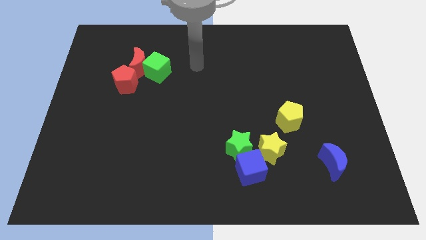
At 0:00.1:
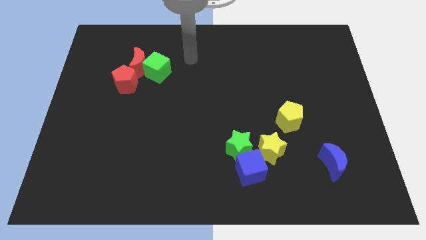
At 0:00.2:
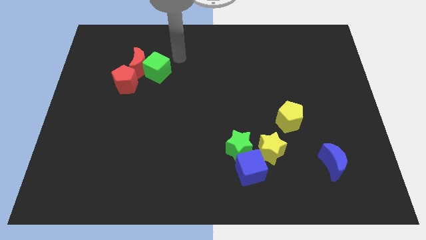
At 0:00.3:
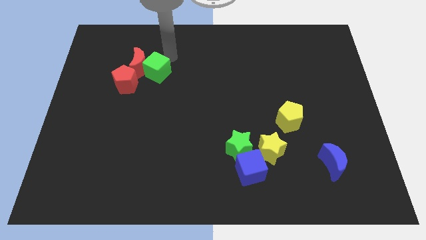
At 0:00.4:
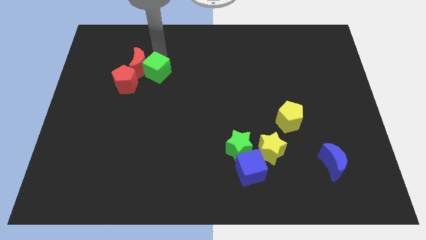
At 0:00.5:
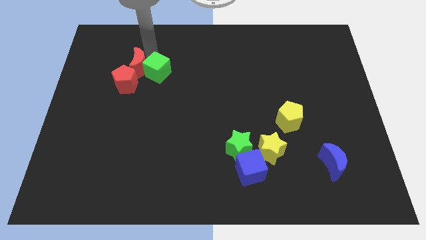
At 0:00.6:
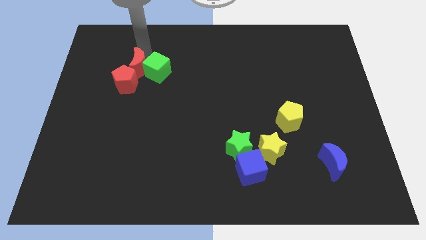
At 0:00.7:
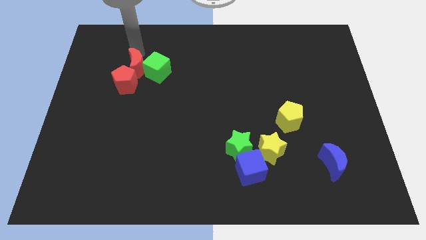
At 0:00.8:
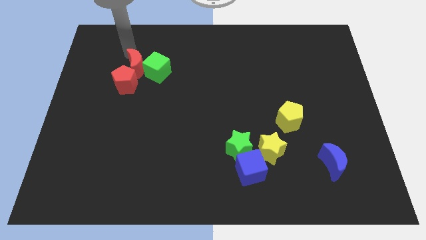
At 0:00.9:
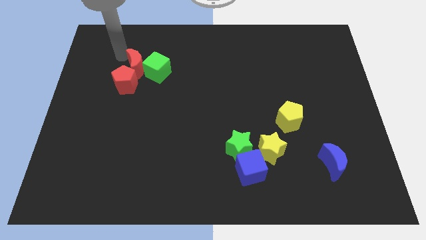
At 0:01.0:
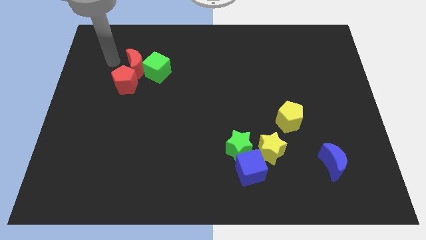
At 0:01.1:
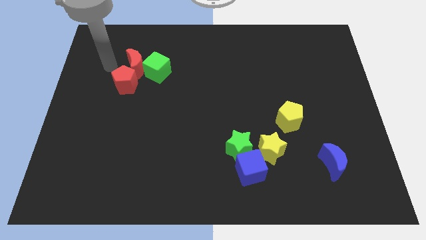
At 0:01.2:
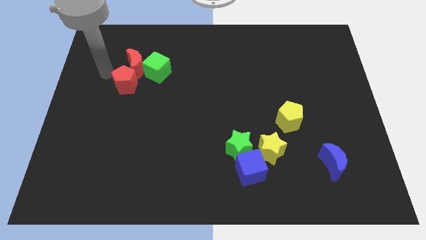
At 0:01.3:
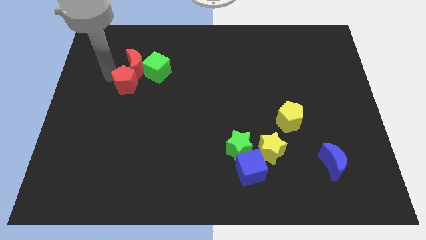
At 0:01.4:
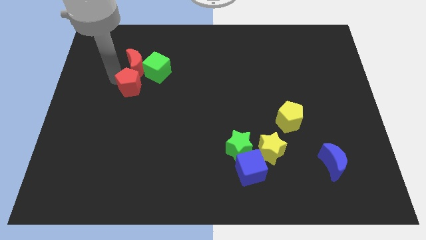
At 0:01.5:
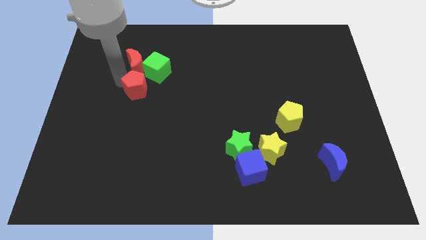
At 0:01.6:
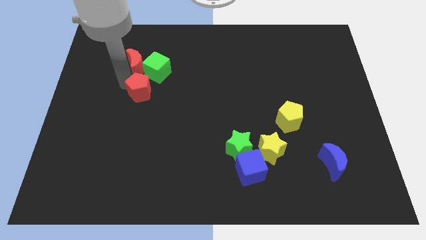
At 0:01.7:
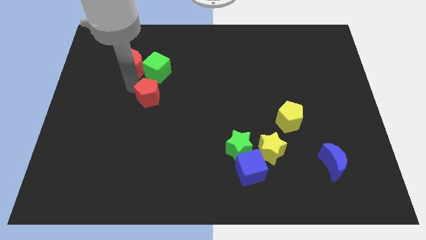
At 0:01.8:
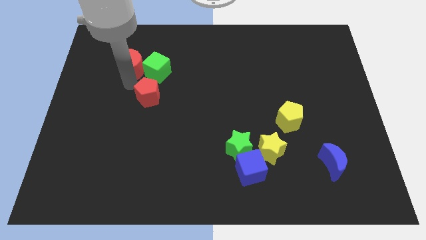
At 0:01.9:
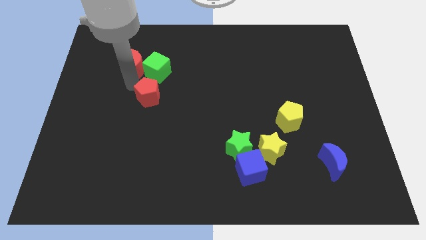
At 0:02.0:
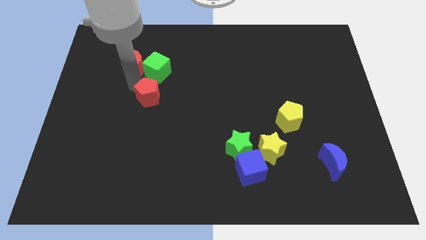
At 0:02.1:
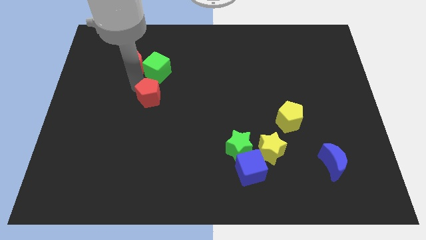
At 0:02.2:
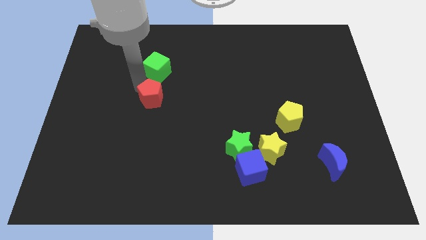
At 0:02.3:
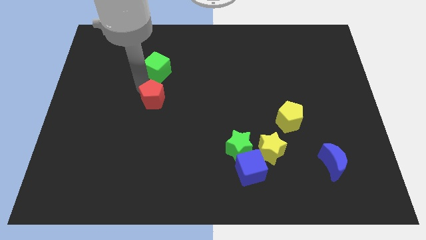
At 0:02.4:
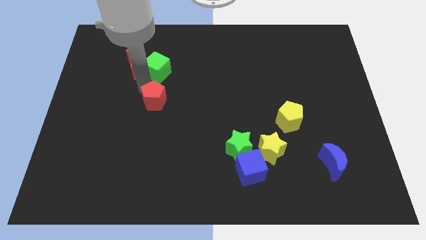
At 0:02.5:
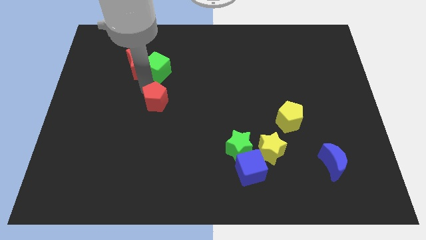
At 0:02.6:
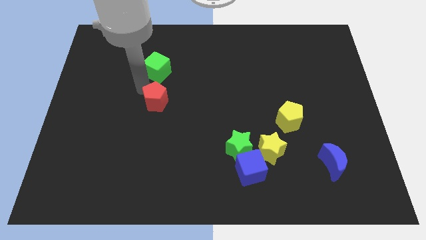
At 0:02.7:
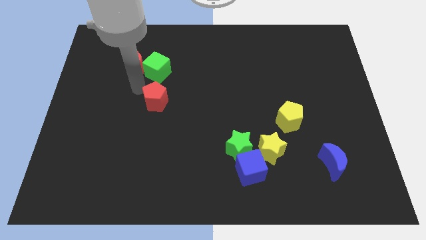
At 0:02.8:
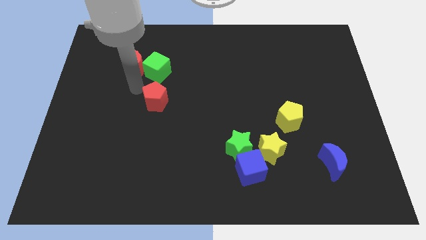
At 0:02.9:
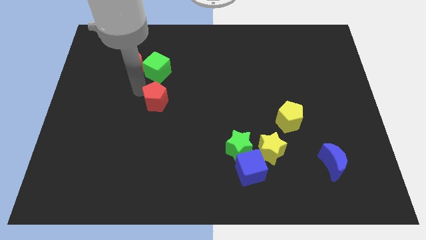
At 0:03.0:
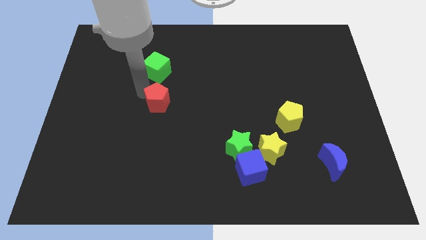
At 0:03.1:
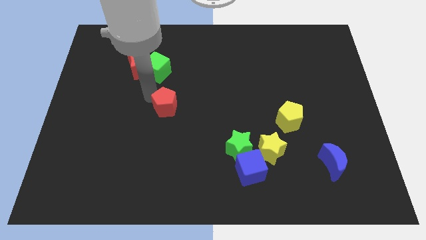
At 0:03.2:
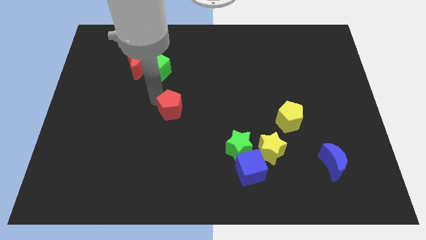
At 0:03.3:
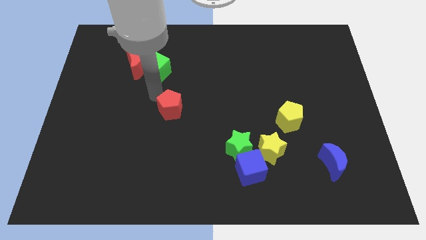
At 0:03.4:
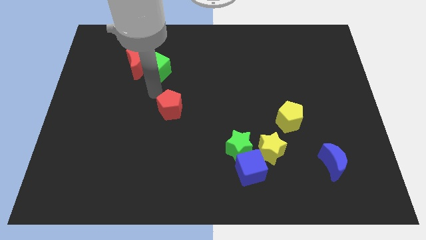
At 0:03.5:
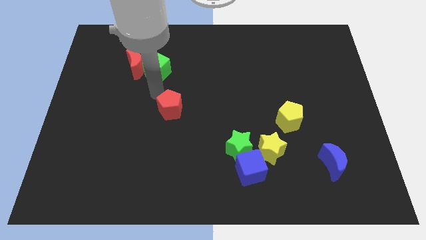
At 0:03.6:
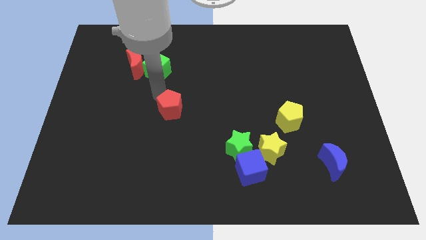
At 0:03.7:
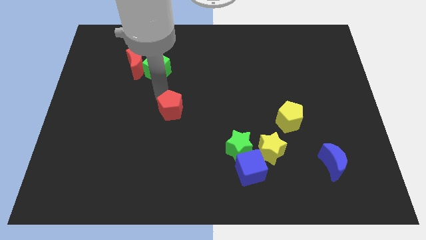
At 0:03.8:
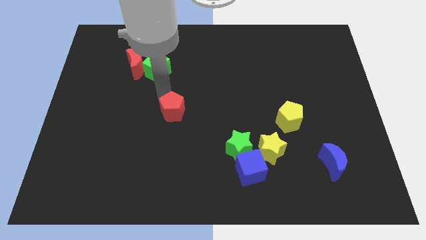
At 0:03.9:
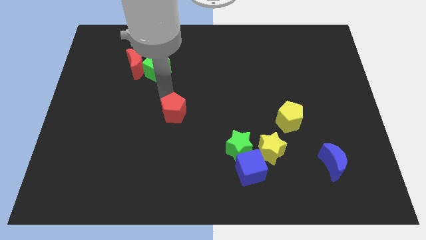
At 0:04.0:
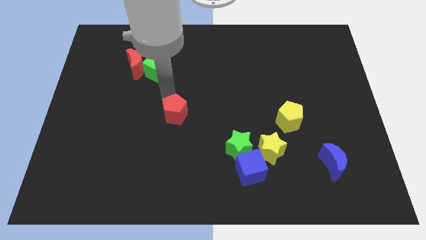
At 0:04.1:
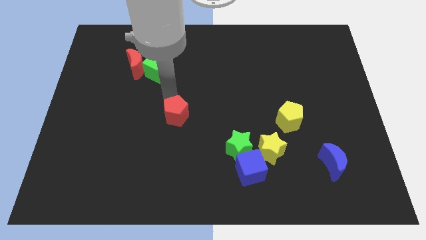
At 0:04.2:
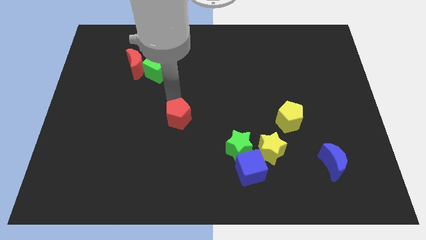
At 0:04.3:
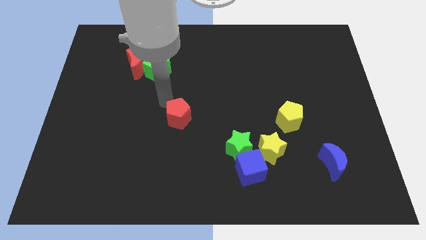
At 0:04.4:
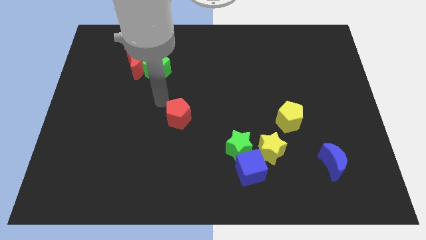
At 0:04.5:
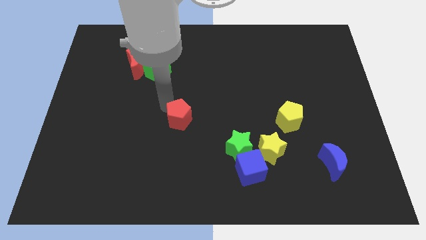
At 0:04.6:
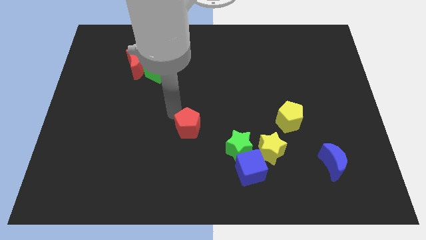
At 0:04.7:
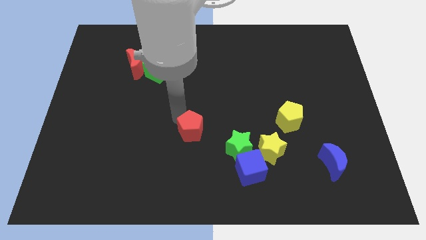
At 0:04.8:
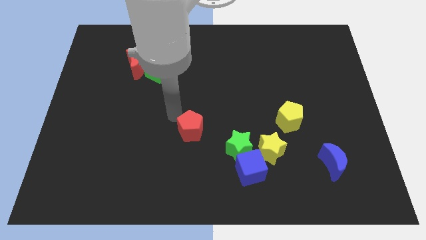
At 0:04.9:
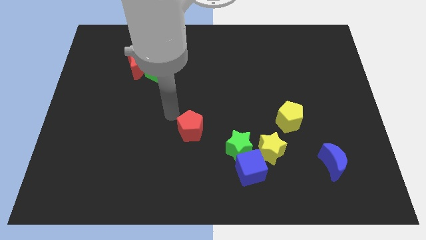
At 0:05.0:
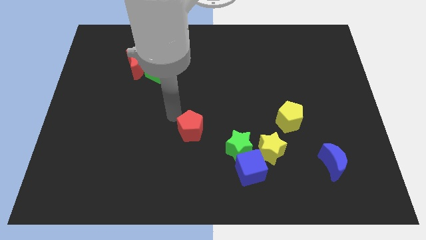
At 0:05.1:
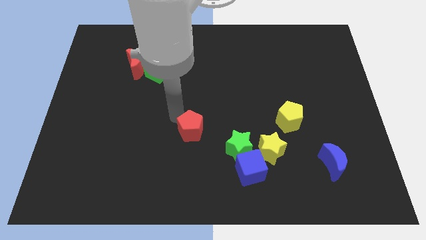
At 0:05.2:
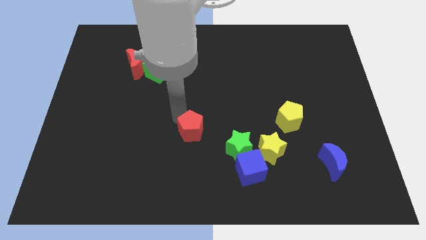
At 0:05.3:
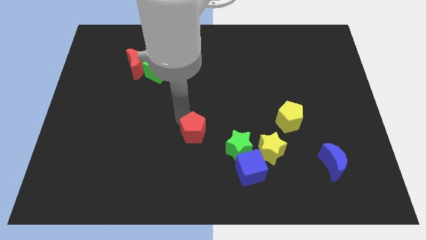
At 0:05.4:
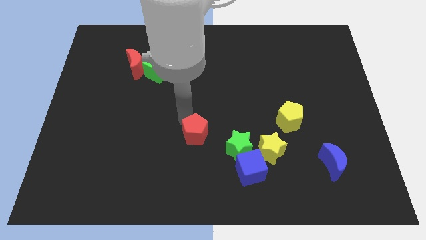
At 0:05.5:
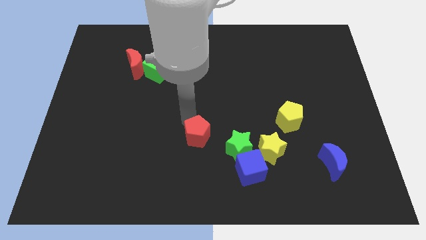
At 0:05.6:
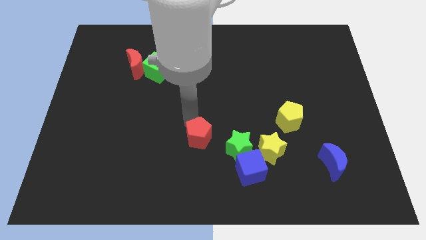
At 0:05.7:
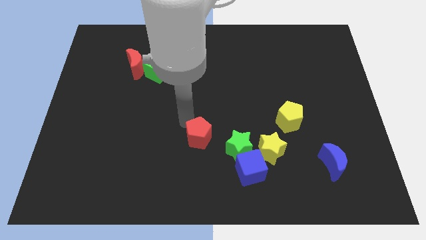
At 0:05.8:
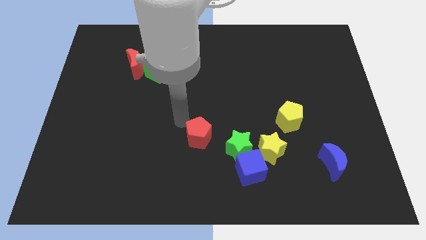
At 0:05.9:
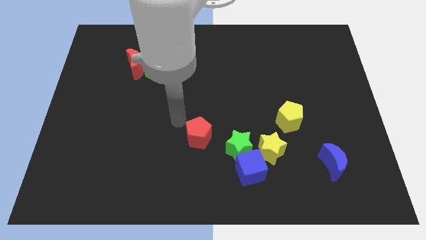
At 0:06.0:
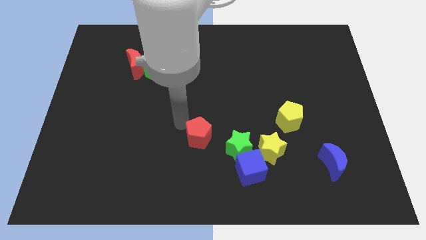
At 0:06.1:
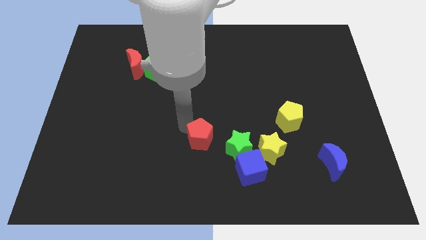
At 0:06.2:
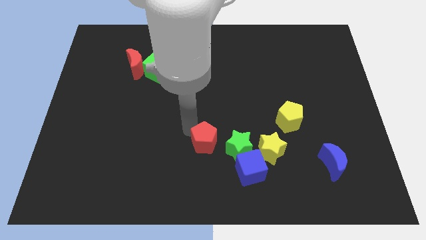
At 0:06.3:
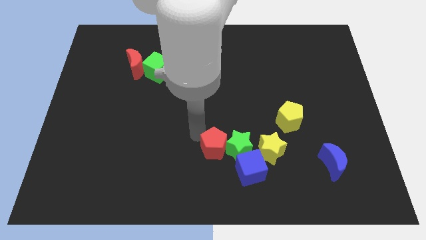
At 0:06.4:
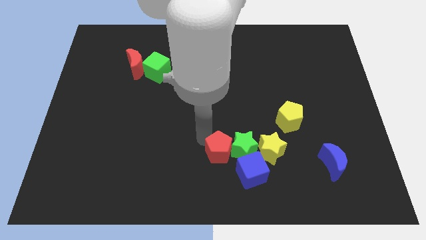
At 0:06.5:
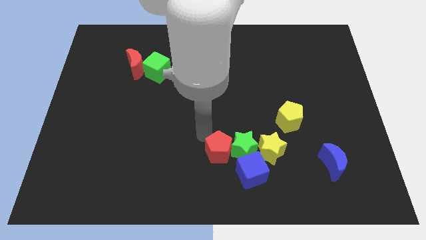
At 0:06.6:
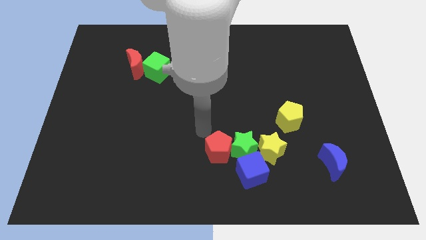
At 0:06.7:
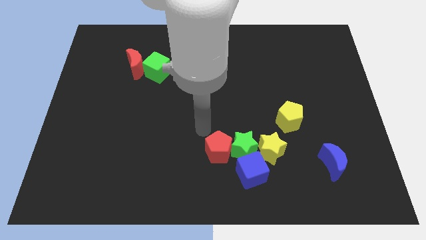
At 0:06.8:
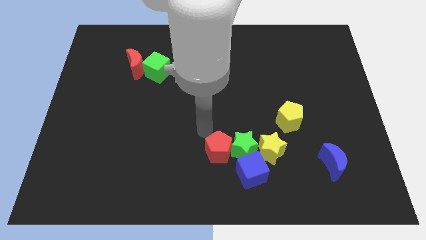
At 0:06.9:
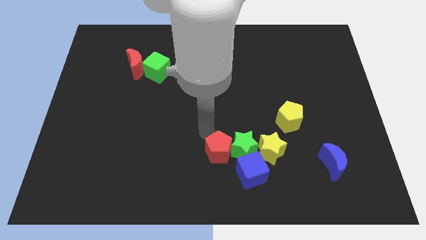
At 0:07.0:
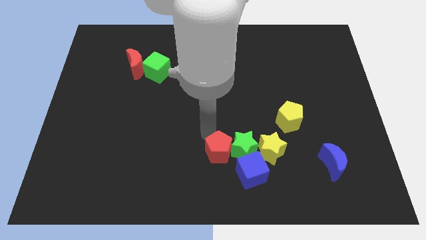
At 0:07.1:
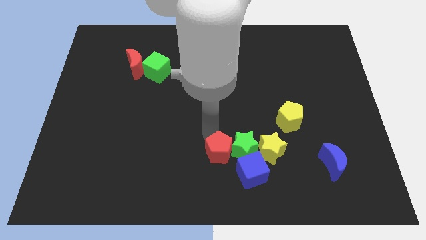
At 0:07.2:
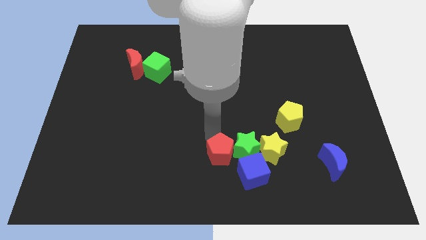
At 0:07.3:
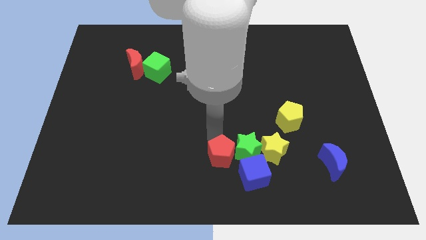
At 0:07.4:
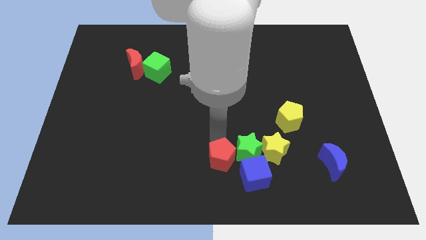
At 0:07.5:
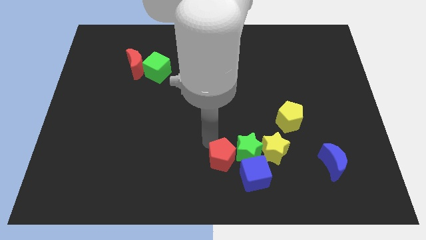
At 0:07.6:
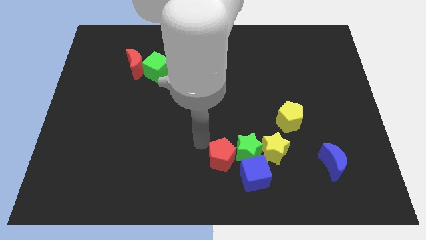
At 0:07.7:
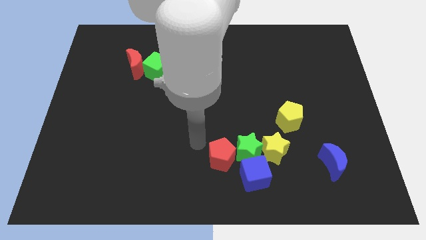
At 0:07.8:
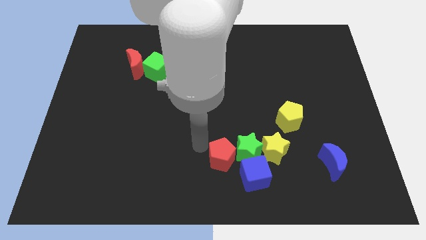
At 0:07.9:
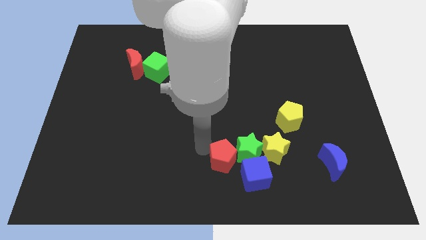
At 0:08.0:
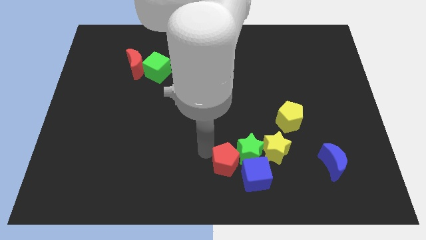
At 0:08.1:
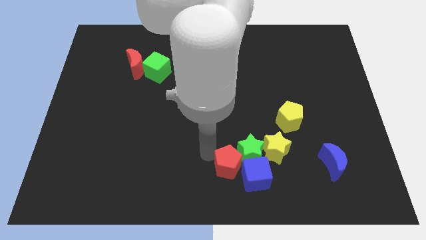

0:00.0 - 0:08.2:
move the red pentagon close to the blue cube

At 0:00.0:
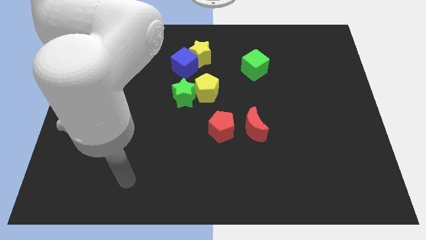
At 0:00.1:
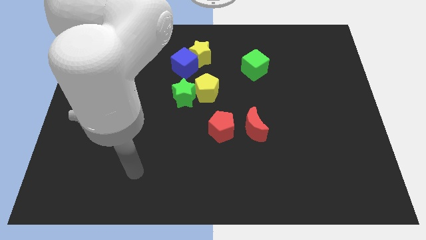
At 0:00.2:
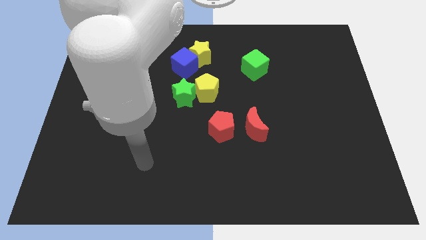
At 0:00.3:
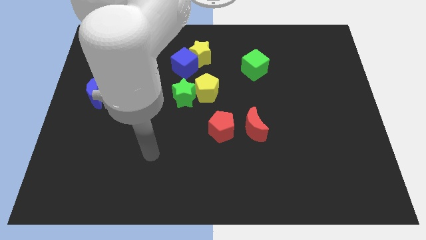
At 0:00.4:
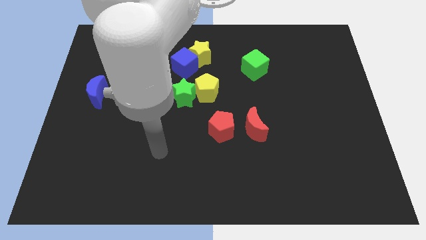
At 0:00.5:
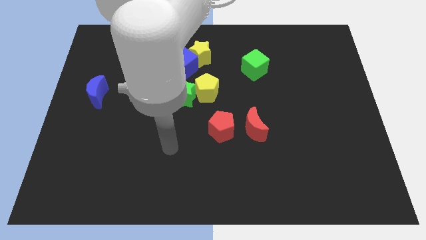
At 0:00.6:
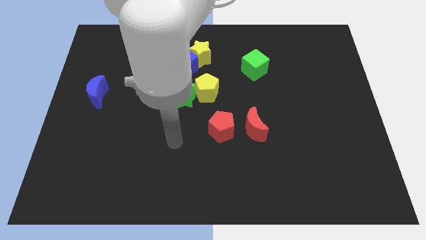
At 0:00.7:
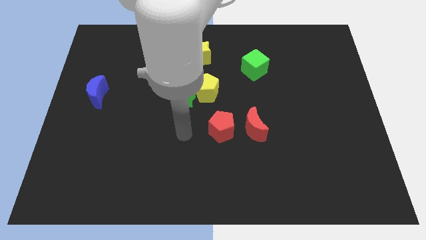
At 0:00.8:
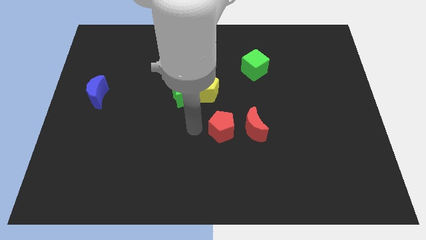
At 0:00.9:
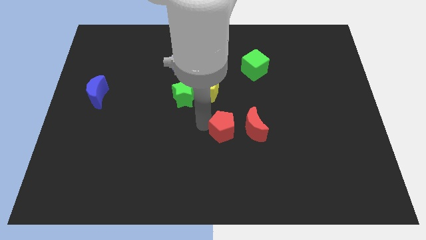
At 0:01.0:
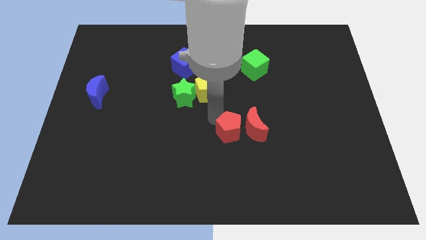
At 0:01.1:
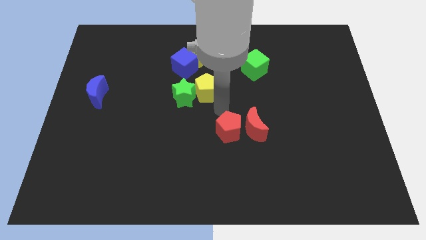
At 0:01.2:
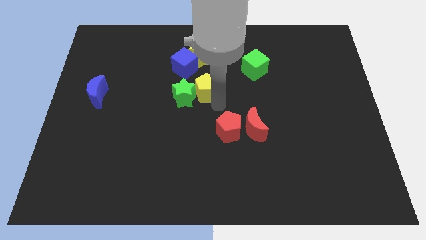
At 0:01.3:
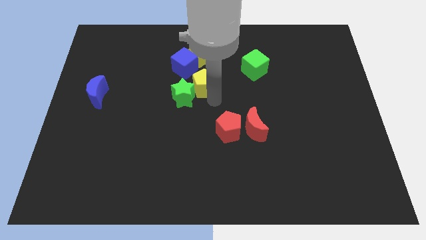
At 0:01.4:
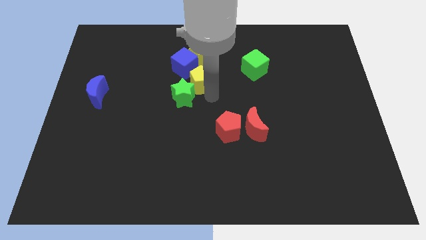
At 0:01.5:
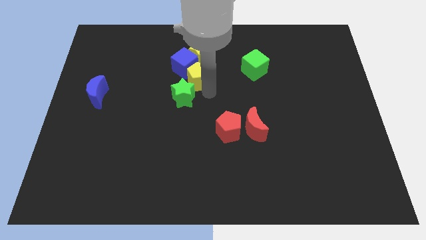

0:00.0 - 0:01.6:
push the yellow pentagon towards the blue cube
